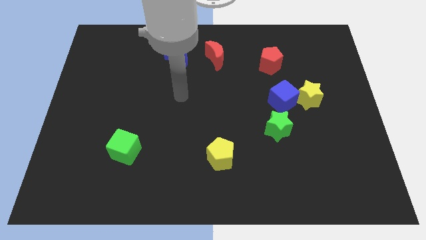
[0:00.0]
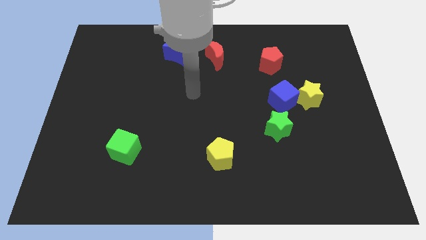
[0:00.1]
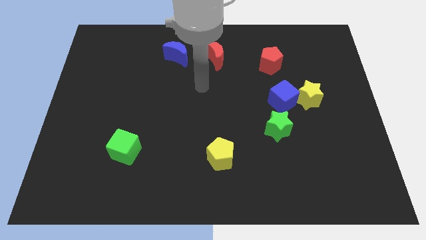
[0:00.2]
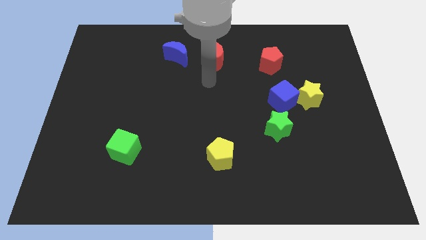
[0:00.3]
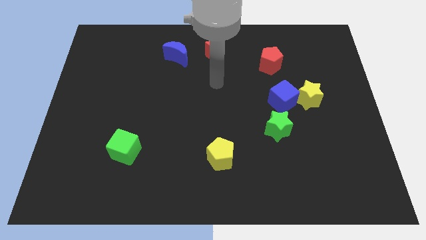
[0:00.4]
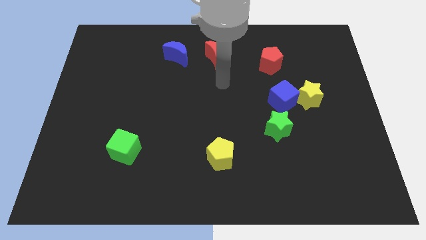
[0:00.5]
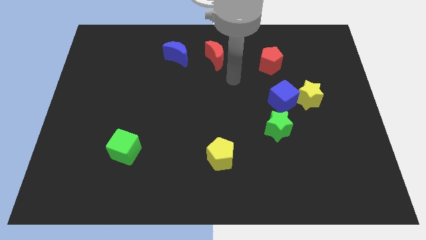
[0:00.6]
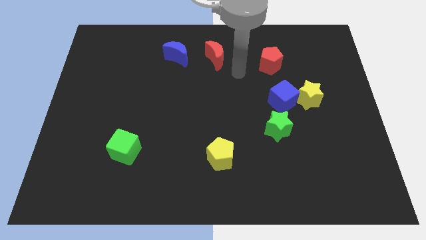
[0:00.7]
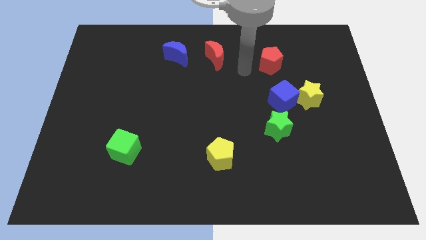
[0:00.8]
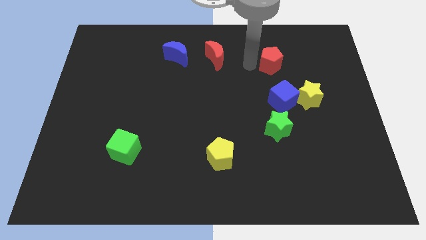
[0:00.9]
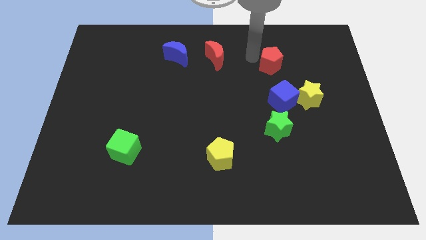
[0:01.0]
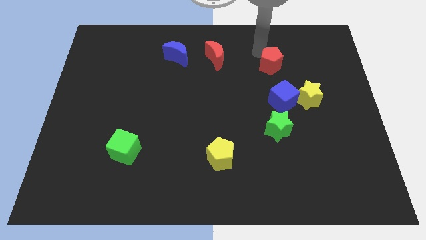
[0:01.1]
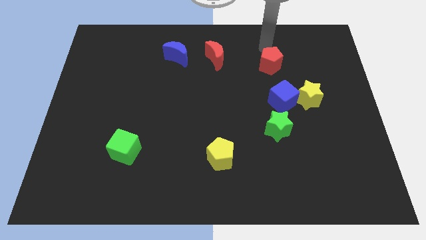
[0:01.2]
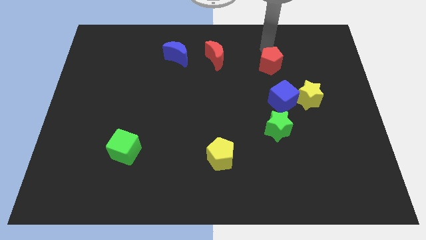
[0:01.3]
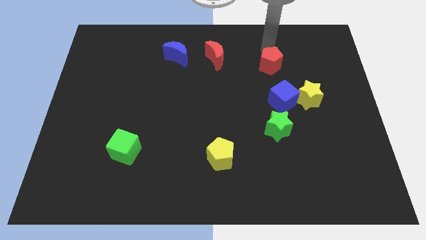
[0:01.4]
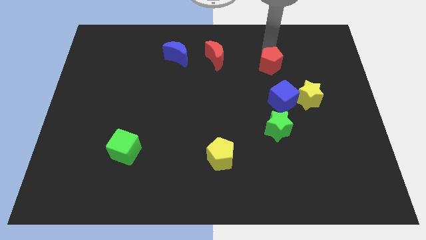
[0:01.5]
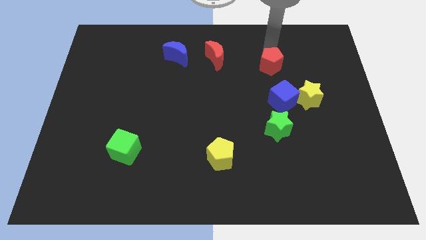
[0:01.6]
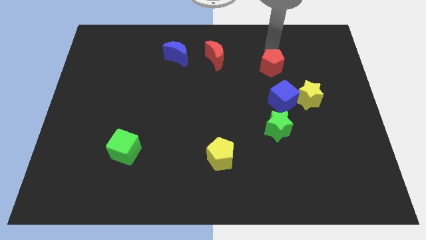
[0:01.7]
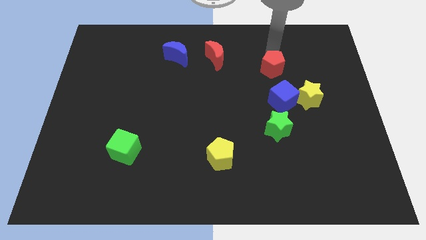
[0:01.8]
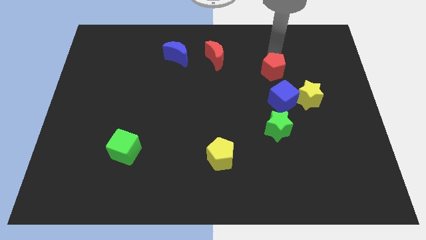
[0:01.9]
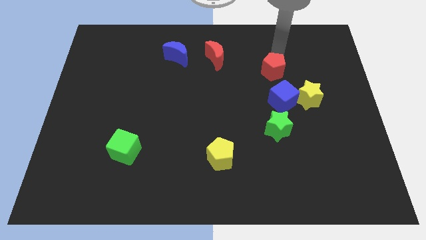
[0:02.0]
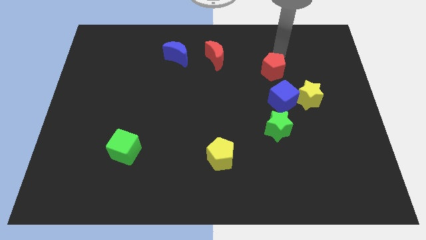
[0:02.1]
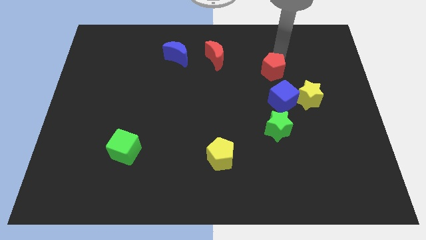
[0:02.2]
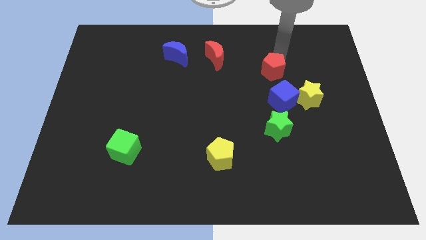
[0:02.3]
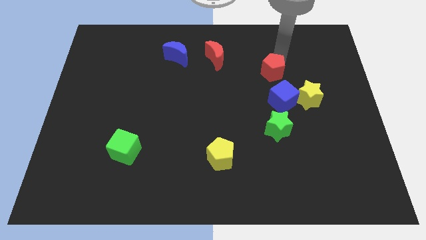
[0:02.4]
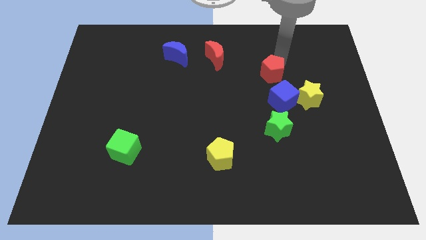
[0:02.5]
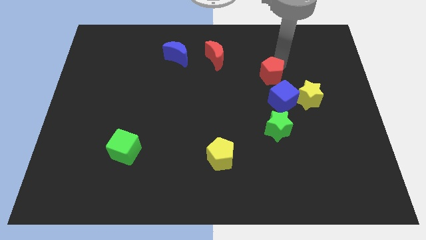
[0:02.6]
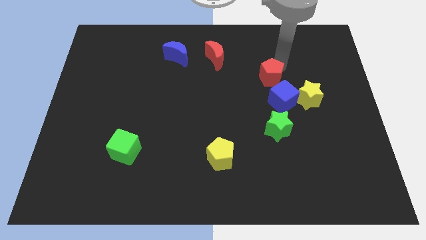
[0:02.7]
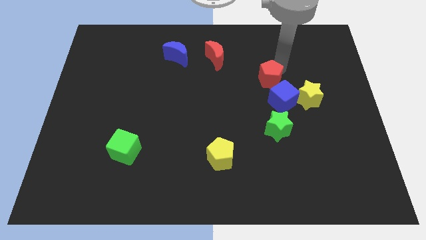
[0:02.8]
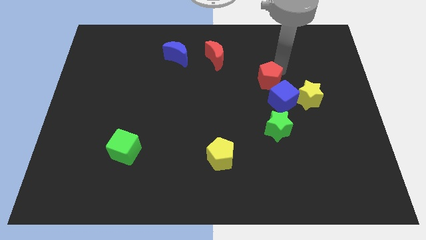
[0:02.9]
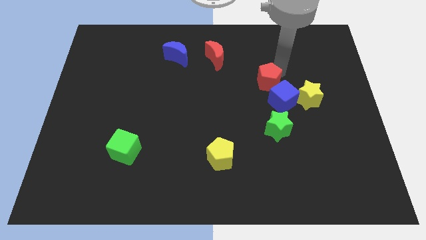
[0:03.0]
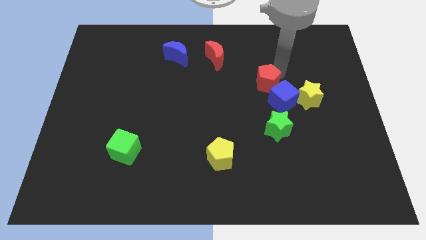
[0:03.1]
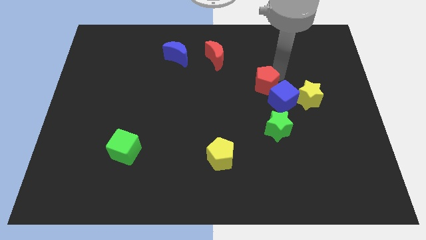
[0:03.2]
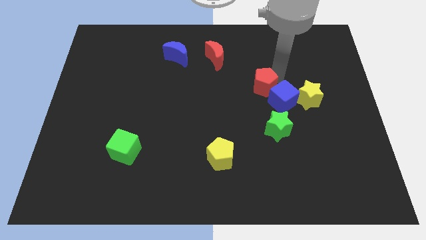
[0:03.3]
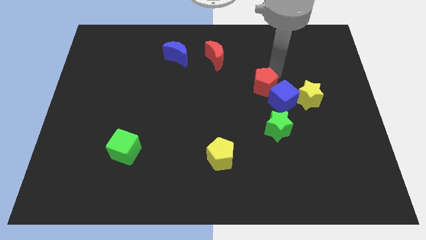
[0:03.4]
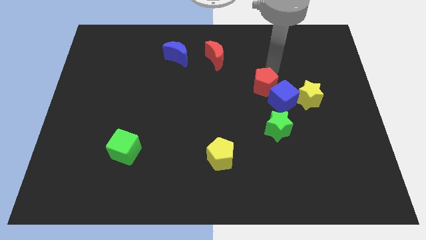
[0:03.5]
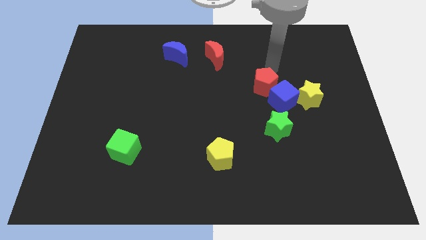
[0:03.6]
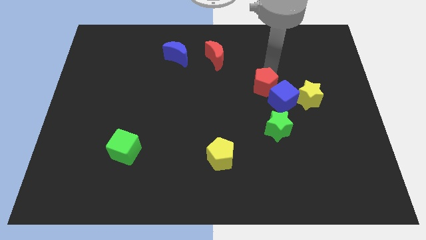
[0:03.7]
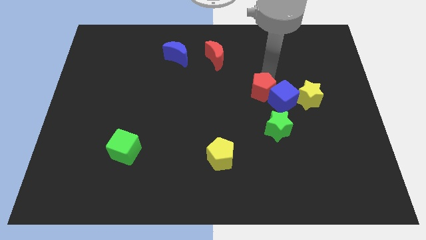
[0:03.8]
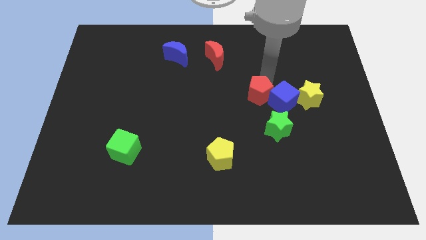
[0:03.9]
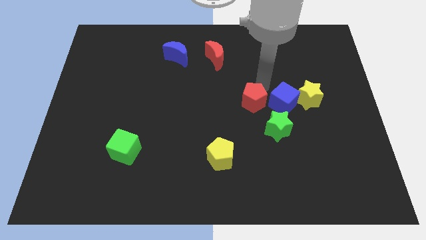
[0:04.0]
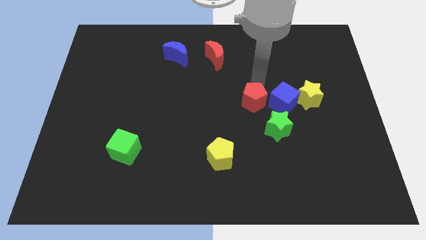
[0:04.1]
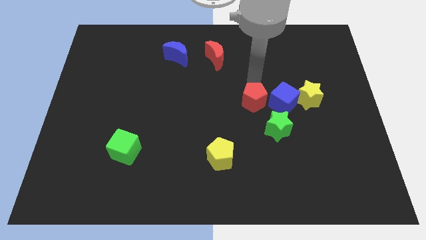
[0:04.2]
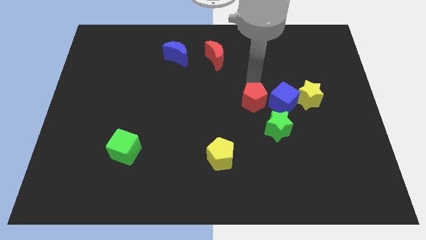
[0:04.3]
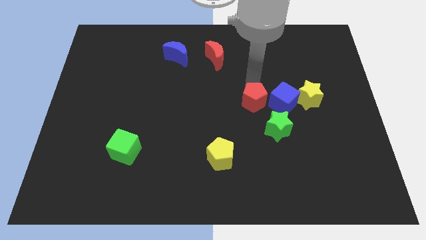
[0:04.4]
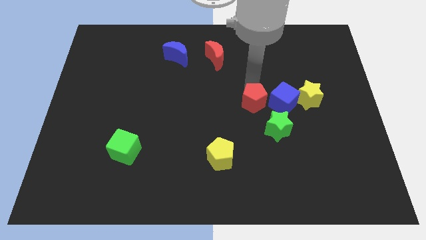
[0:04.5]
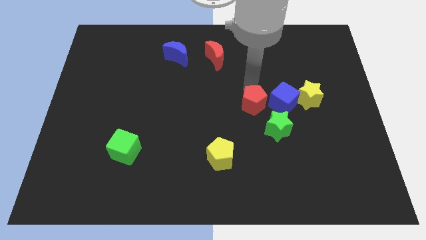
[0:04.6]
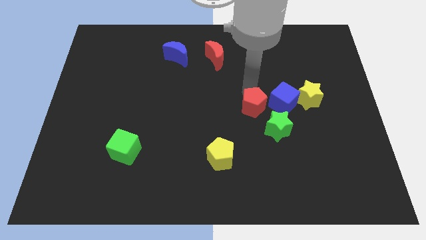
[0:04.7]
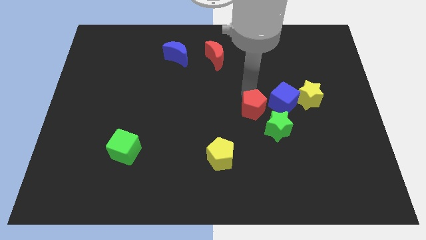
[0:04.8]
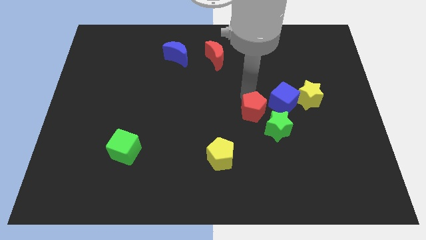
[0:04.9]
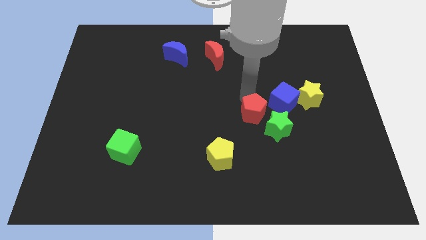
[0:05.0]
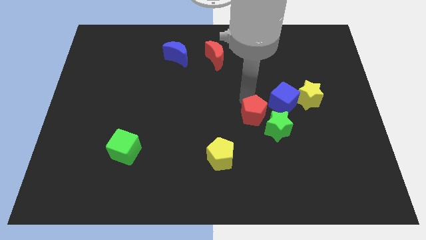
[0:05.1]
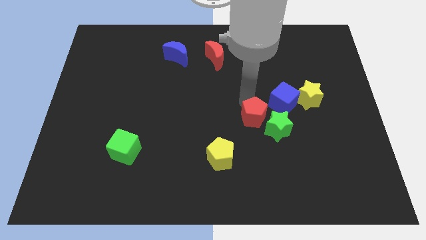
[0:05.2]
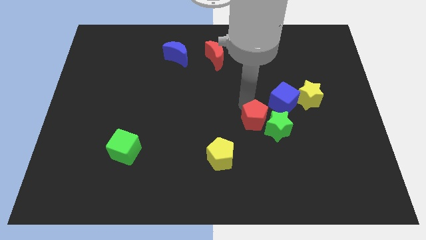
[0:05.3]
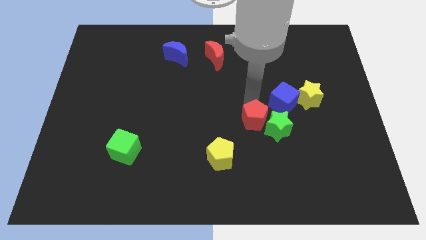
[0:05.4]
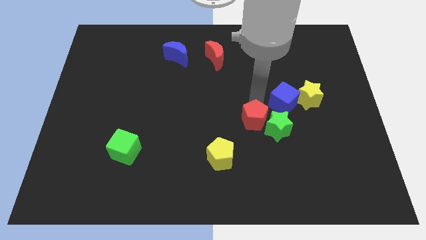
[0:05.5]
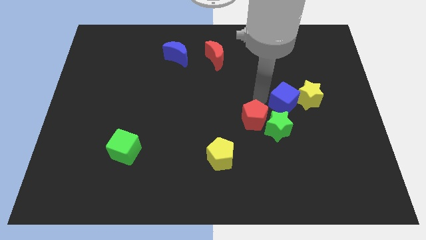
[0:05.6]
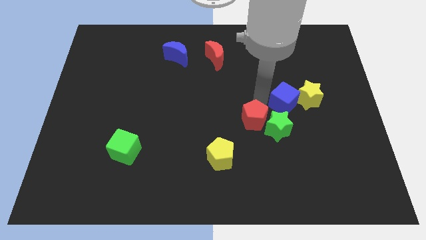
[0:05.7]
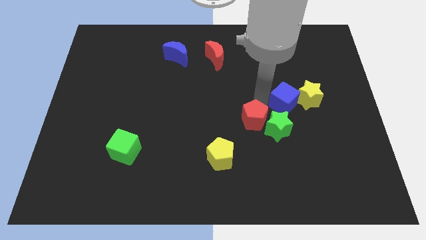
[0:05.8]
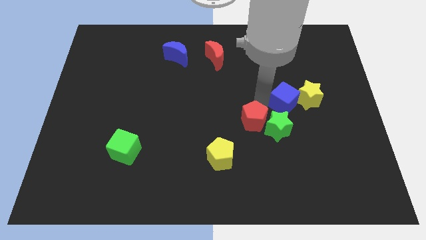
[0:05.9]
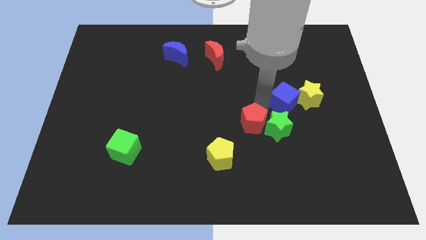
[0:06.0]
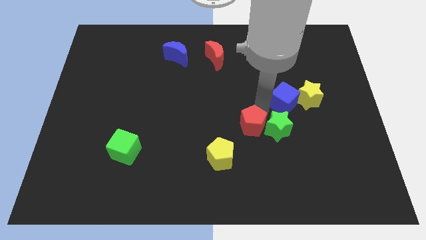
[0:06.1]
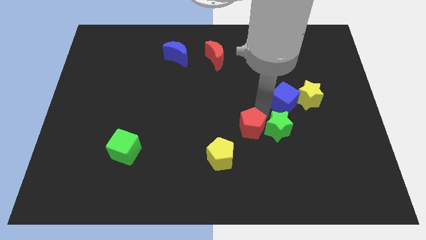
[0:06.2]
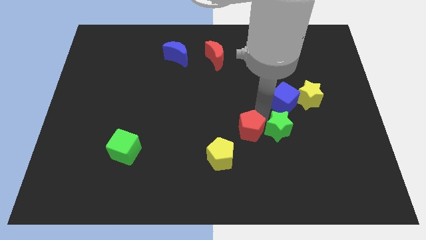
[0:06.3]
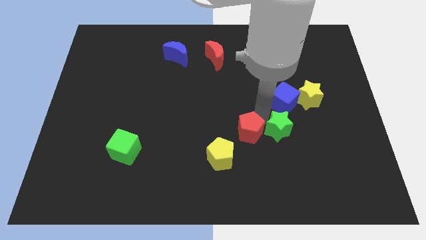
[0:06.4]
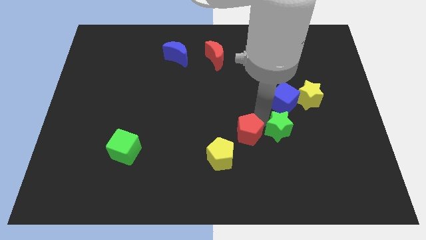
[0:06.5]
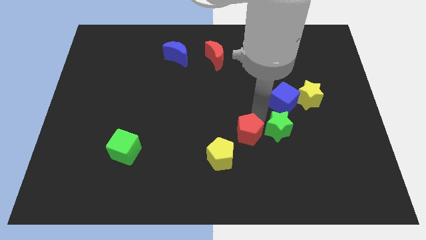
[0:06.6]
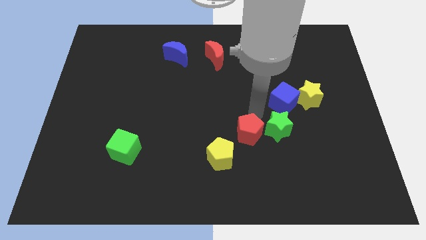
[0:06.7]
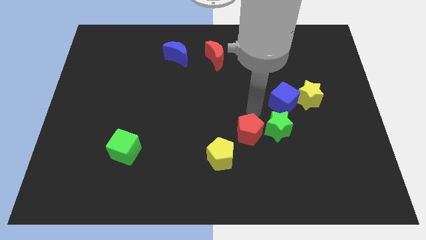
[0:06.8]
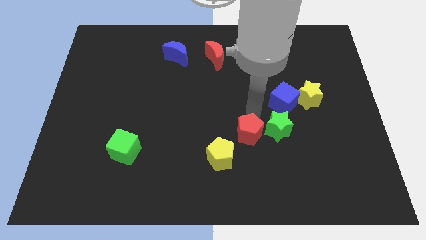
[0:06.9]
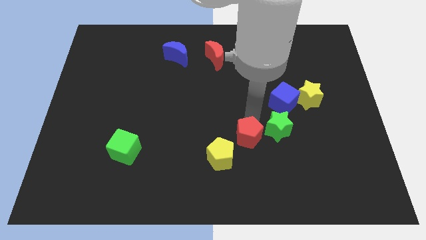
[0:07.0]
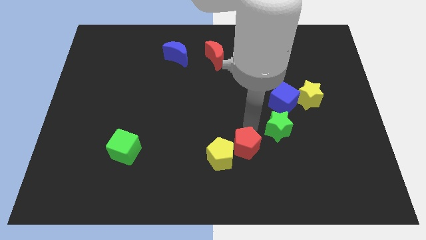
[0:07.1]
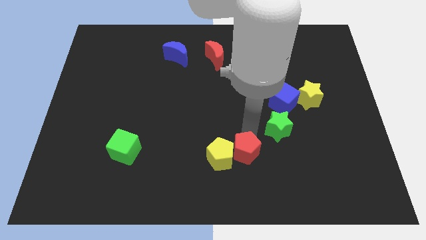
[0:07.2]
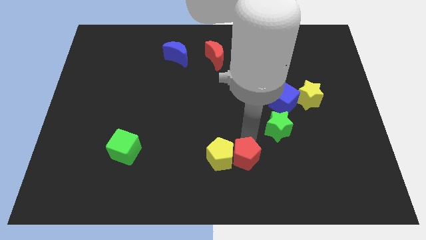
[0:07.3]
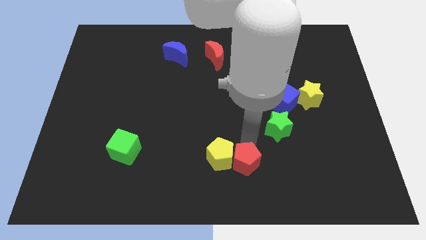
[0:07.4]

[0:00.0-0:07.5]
push the red pentagon to the bottom
